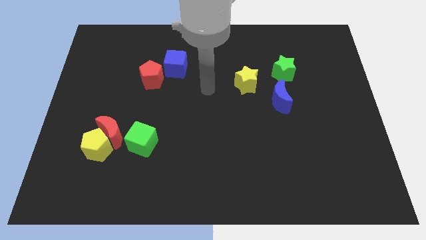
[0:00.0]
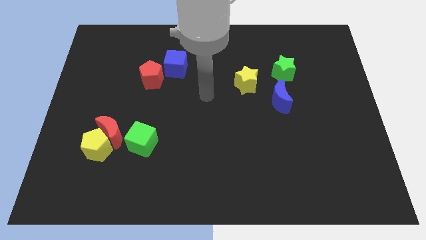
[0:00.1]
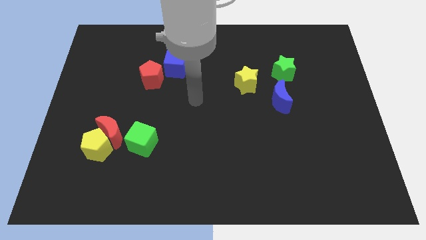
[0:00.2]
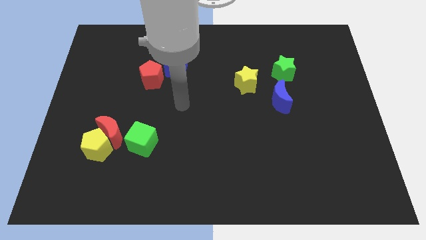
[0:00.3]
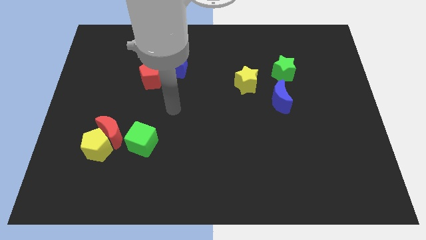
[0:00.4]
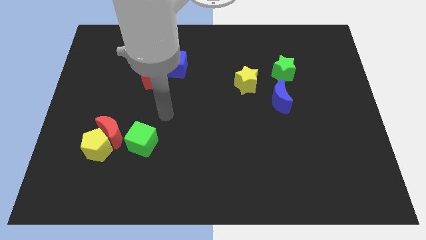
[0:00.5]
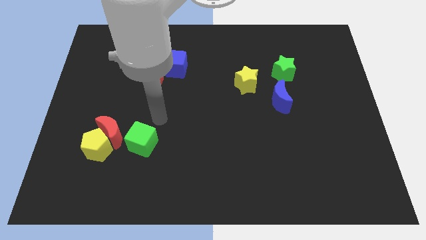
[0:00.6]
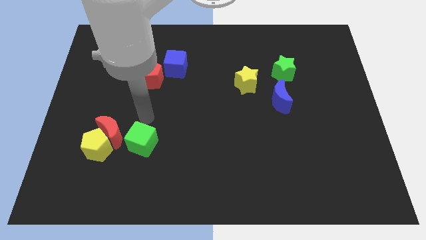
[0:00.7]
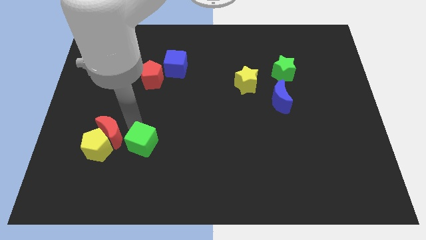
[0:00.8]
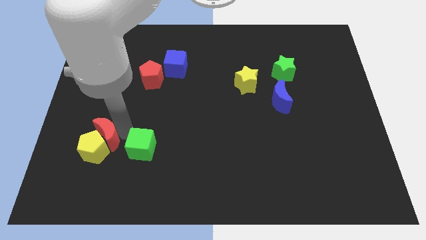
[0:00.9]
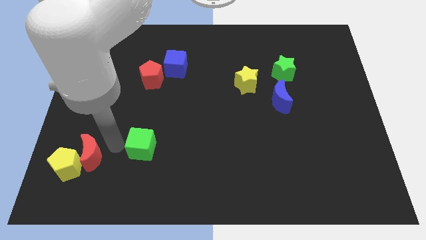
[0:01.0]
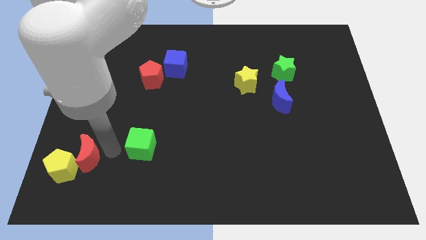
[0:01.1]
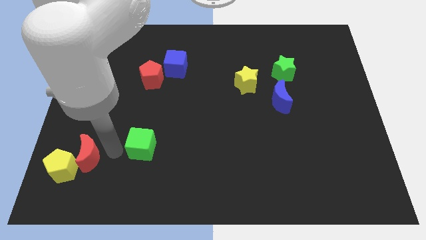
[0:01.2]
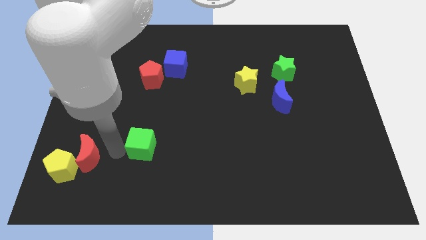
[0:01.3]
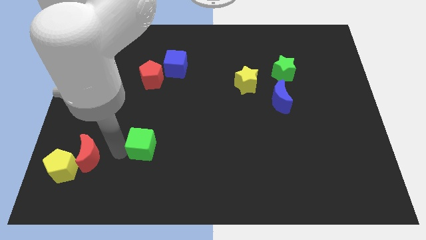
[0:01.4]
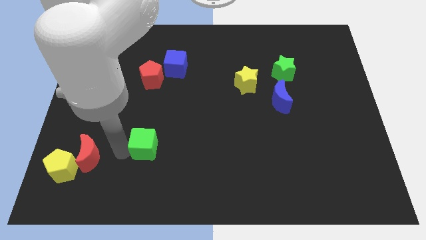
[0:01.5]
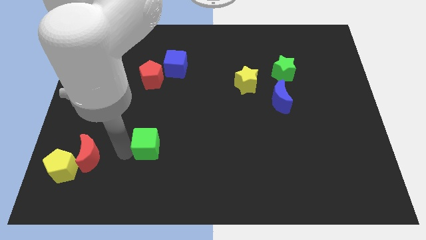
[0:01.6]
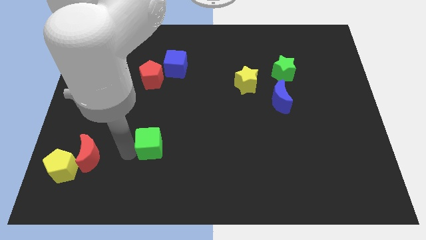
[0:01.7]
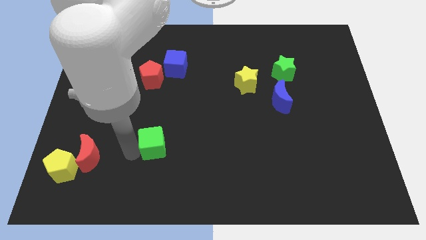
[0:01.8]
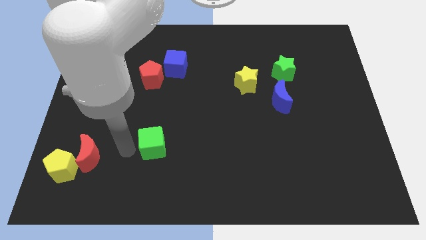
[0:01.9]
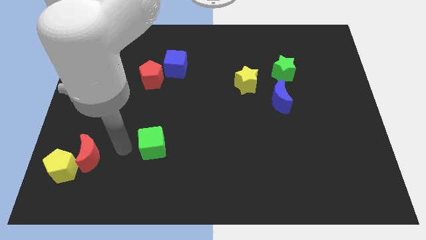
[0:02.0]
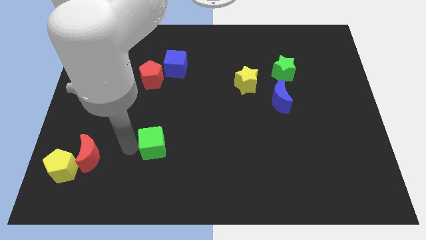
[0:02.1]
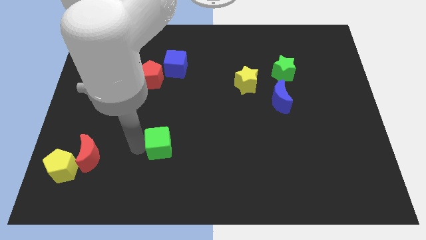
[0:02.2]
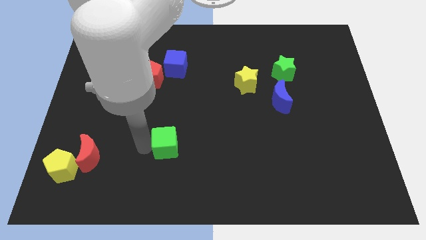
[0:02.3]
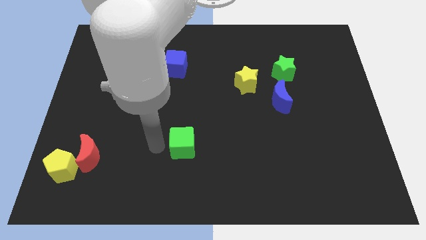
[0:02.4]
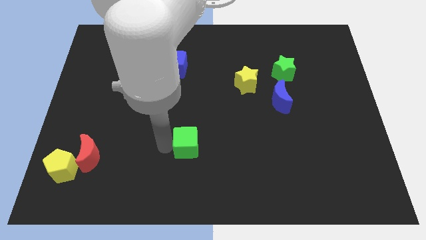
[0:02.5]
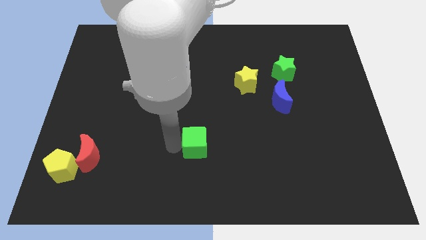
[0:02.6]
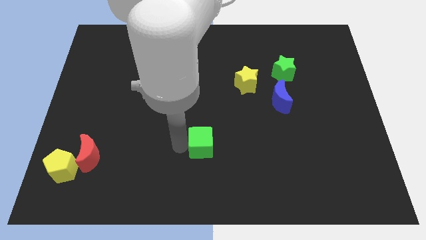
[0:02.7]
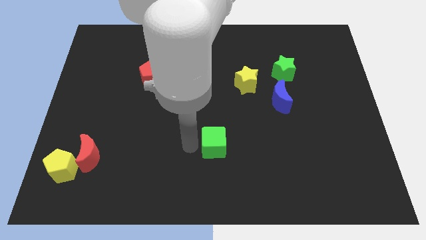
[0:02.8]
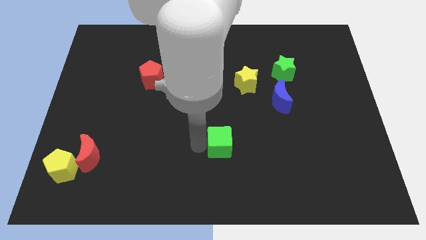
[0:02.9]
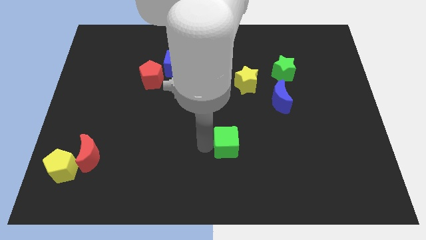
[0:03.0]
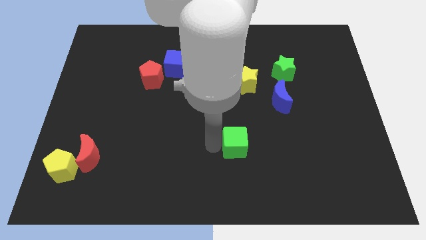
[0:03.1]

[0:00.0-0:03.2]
push the green cube right

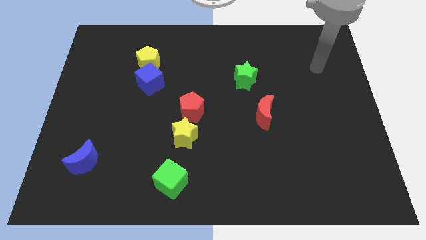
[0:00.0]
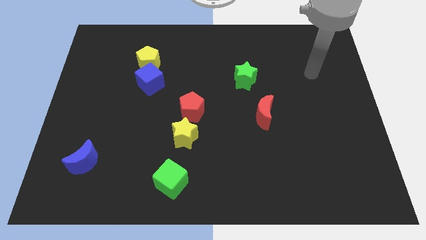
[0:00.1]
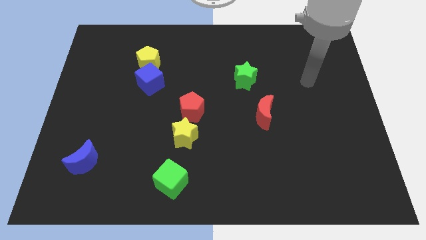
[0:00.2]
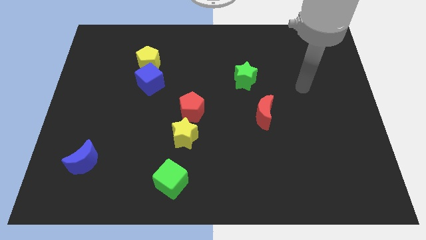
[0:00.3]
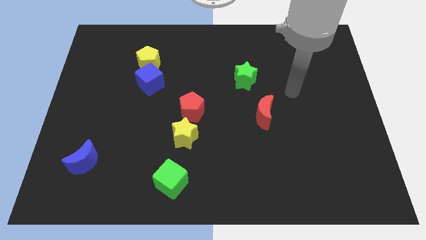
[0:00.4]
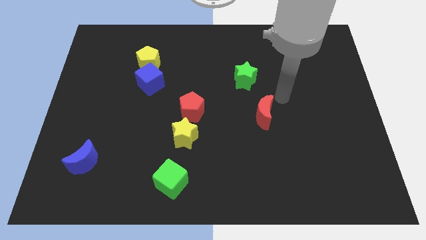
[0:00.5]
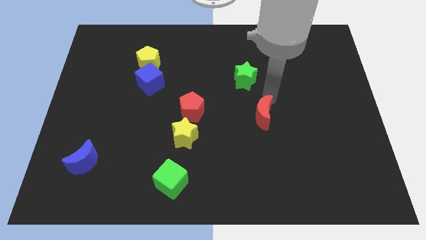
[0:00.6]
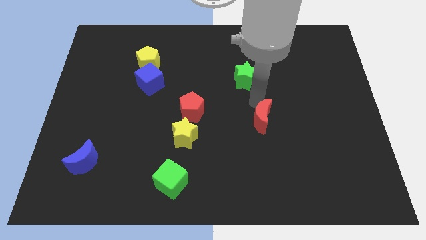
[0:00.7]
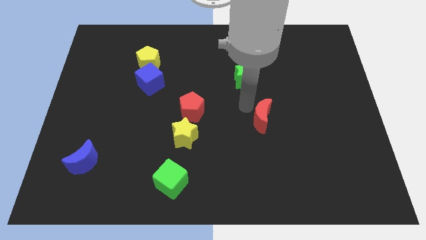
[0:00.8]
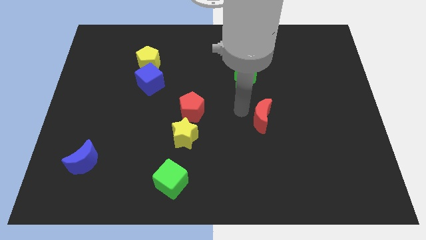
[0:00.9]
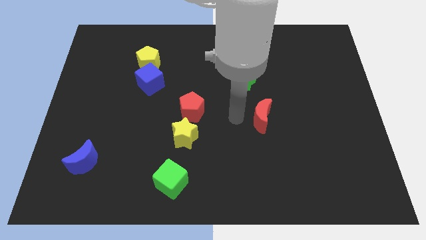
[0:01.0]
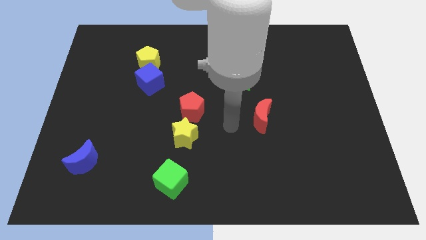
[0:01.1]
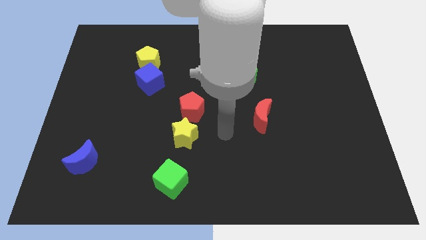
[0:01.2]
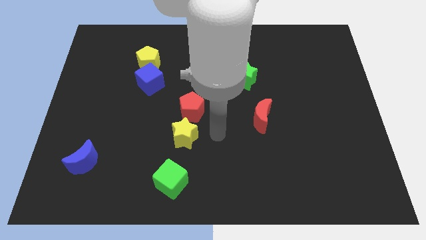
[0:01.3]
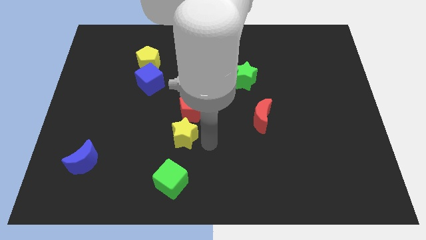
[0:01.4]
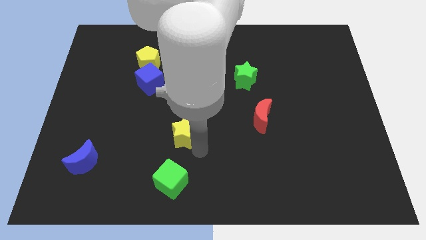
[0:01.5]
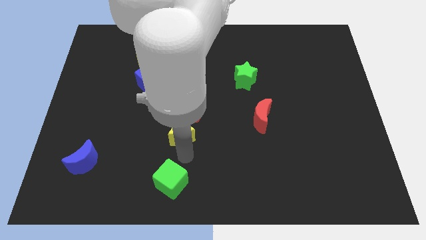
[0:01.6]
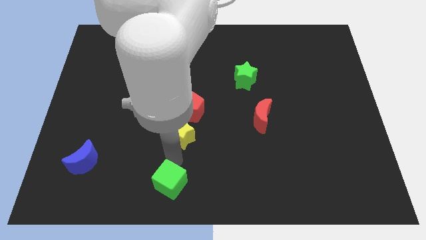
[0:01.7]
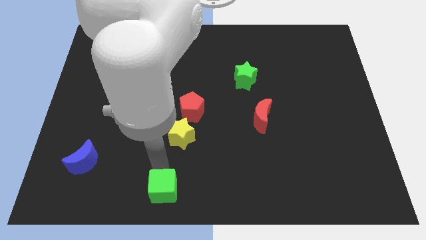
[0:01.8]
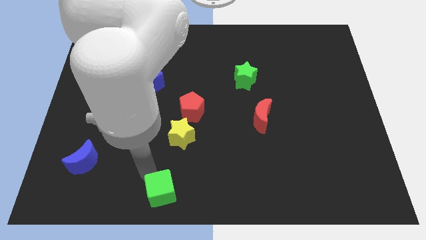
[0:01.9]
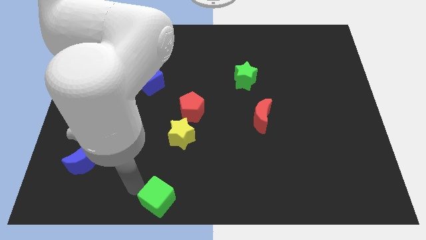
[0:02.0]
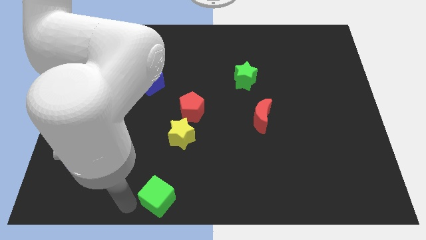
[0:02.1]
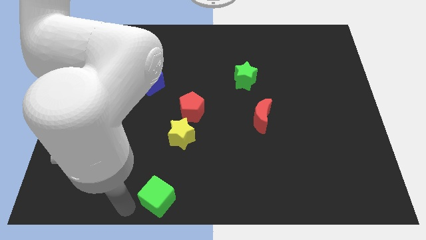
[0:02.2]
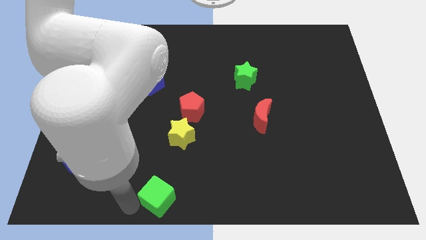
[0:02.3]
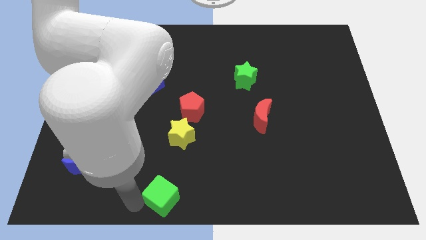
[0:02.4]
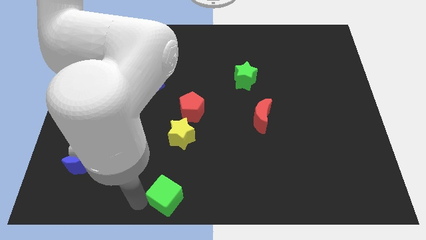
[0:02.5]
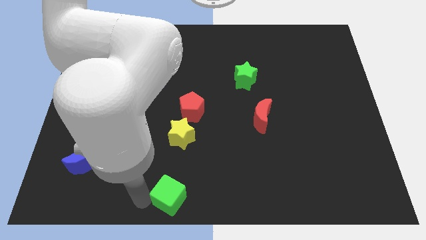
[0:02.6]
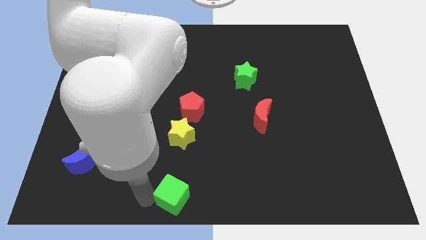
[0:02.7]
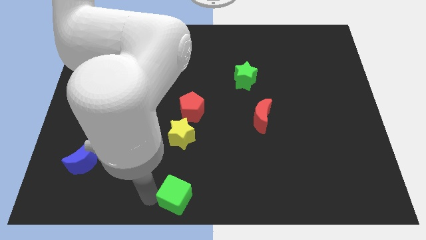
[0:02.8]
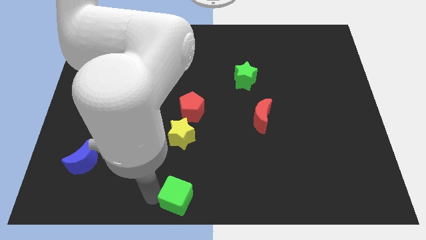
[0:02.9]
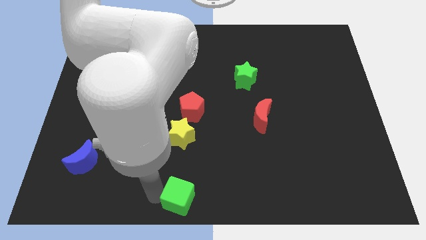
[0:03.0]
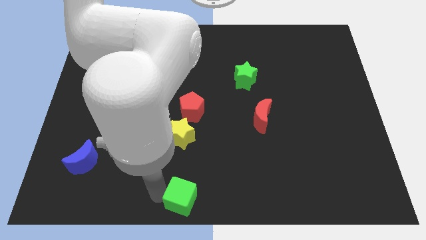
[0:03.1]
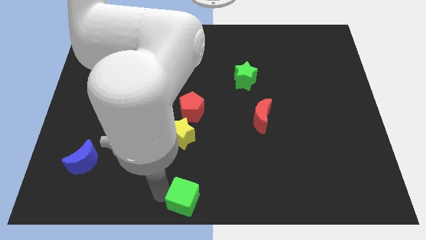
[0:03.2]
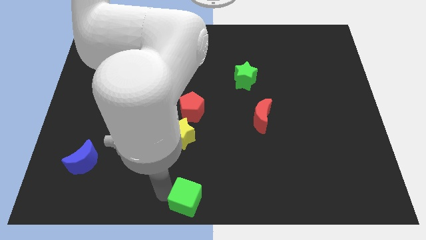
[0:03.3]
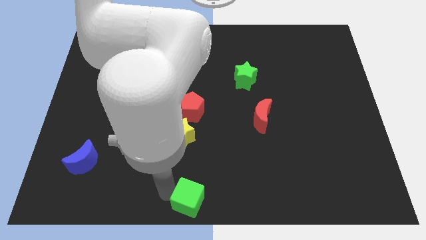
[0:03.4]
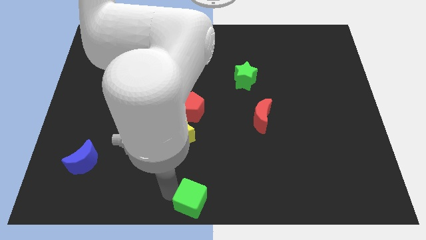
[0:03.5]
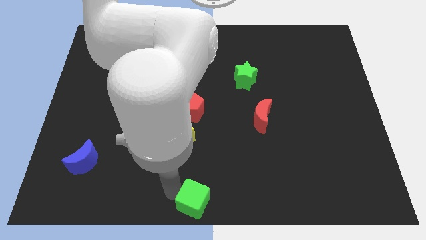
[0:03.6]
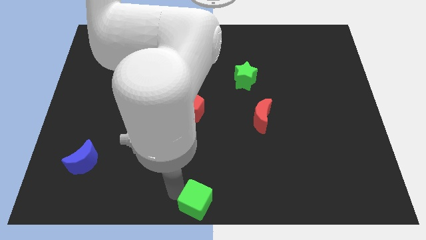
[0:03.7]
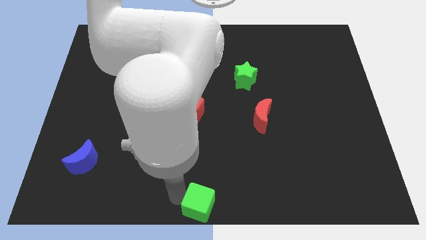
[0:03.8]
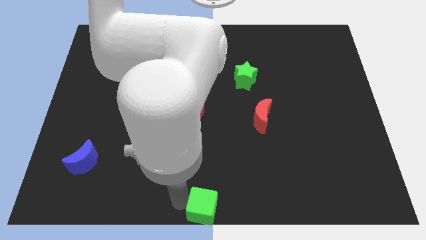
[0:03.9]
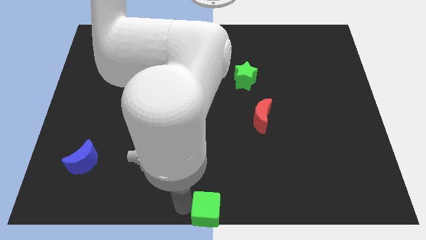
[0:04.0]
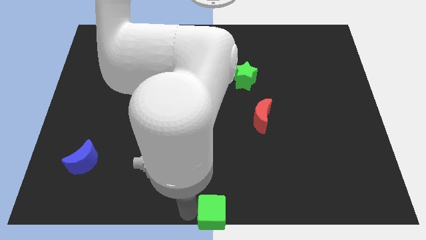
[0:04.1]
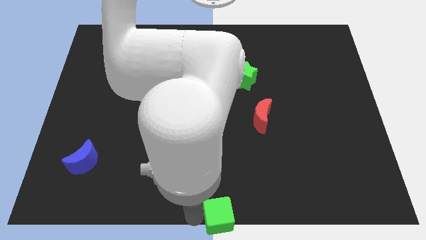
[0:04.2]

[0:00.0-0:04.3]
push the green cube to the right slightly

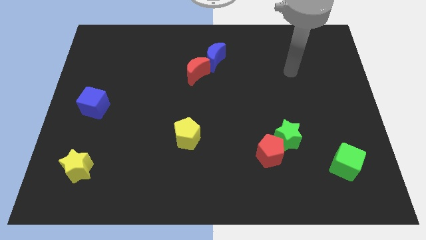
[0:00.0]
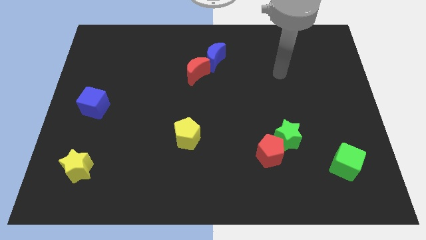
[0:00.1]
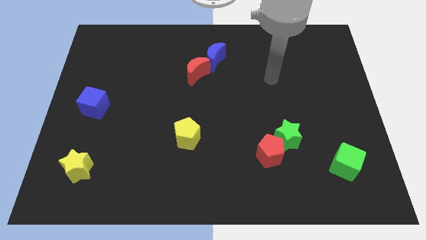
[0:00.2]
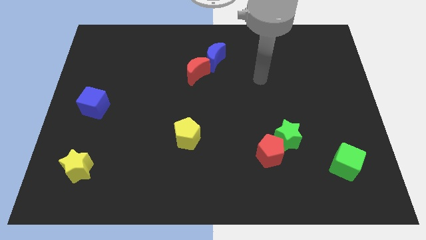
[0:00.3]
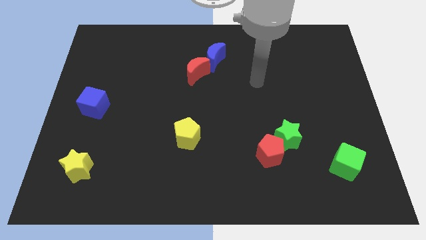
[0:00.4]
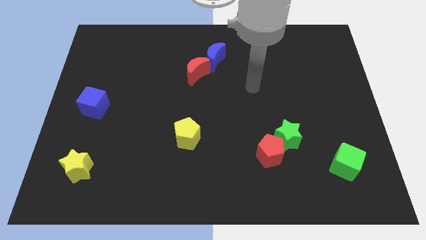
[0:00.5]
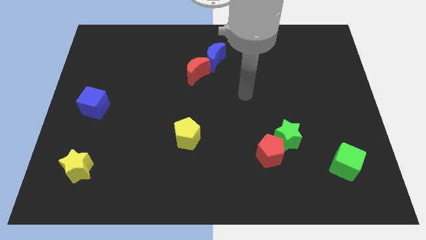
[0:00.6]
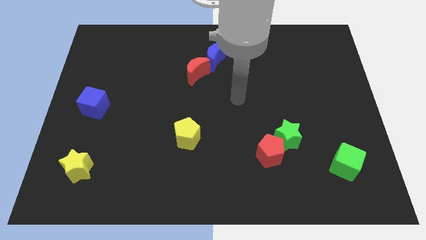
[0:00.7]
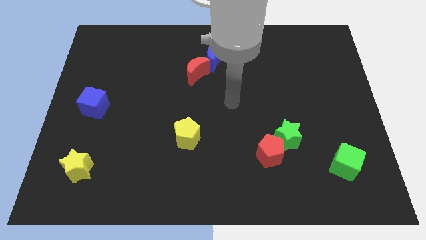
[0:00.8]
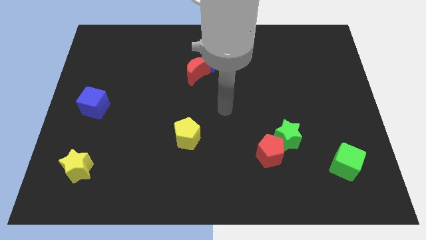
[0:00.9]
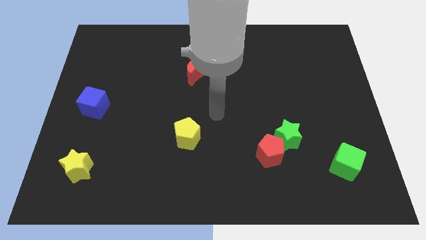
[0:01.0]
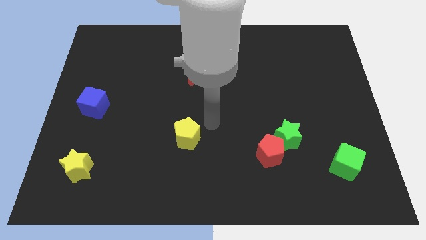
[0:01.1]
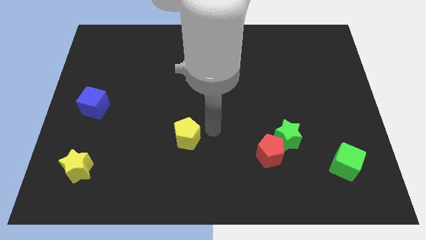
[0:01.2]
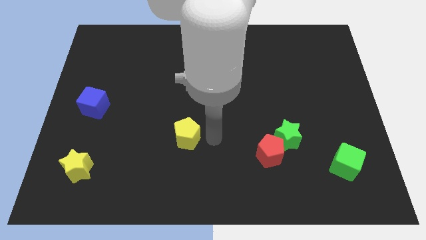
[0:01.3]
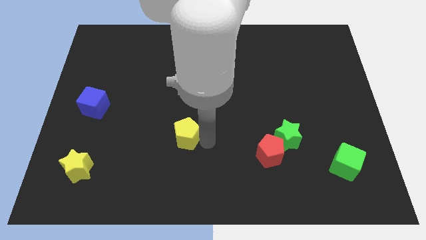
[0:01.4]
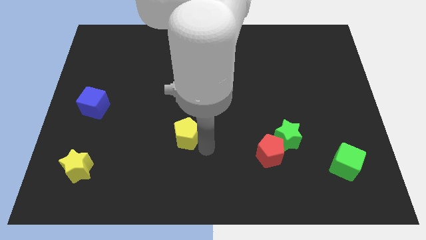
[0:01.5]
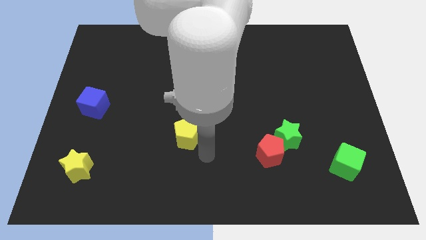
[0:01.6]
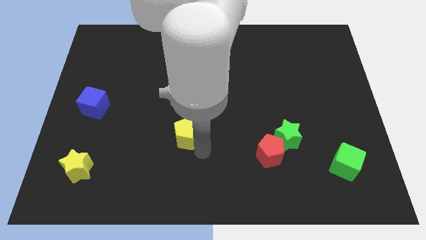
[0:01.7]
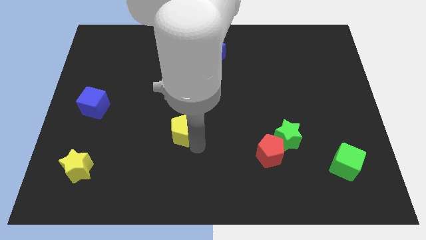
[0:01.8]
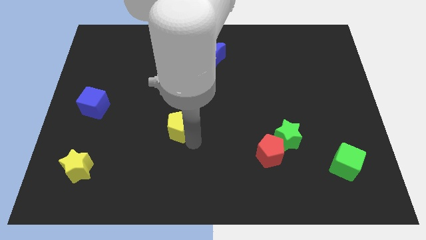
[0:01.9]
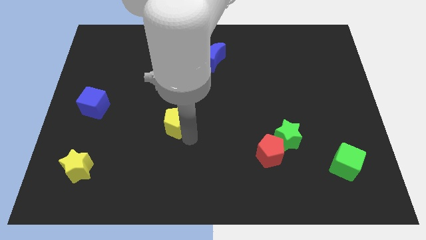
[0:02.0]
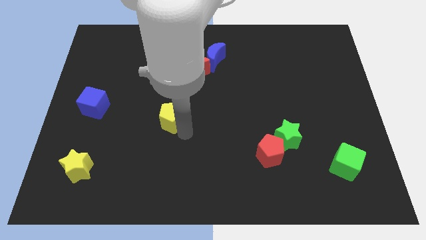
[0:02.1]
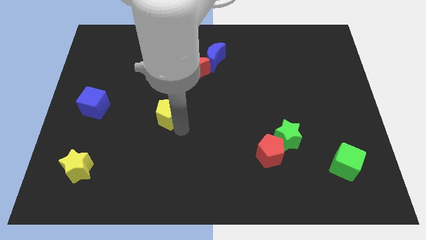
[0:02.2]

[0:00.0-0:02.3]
slightly push the yellow pentagon upwards and then to the left
